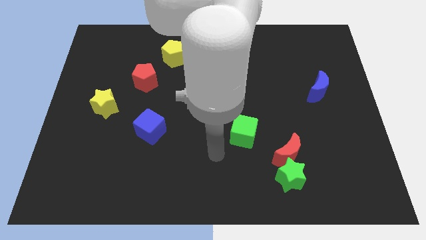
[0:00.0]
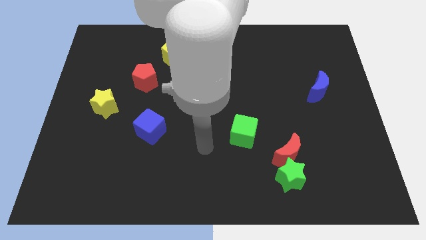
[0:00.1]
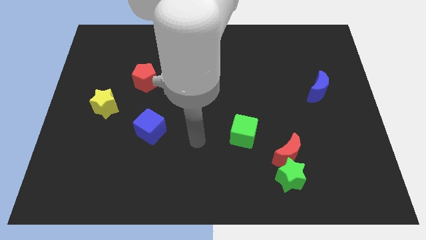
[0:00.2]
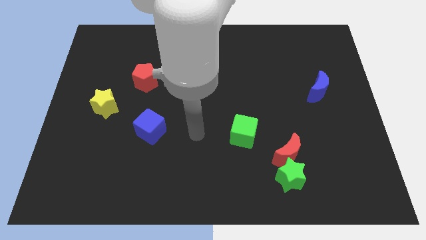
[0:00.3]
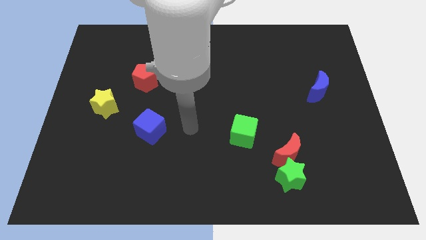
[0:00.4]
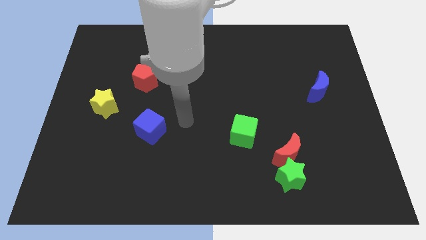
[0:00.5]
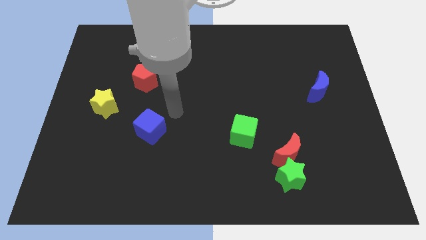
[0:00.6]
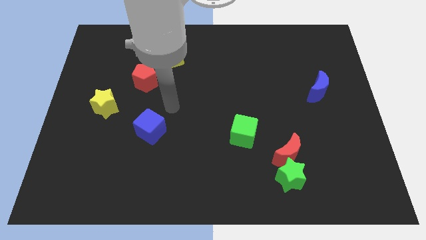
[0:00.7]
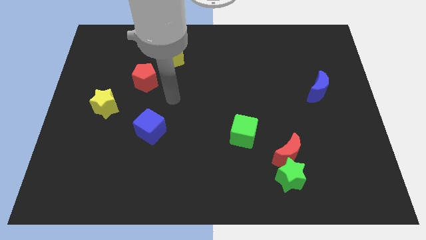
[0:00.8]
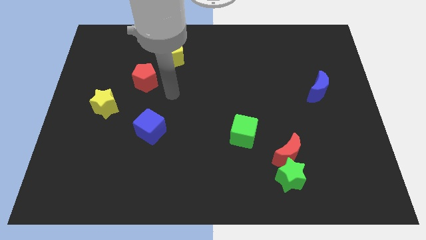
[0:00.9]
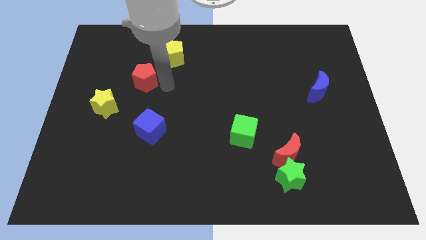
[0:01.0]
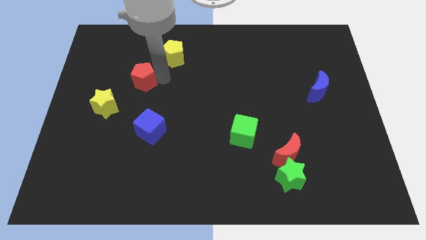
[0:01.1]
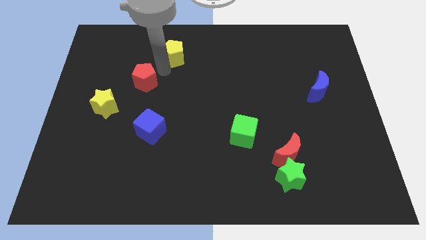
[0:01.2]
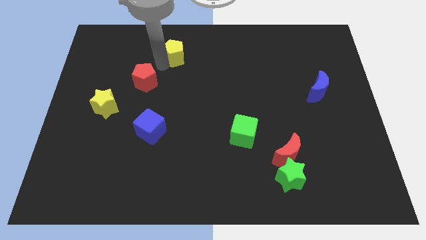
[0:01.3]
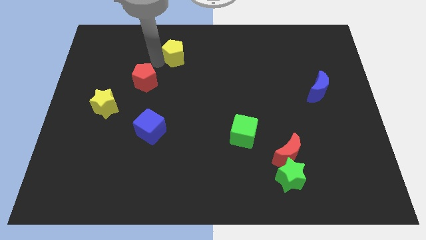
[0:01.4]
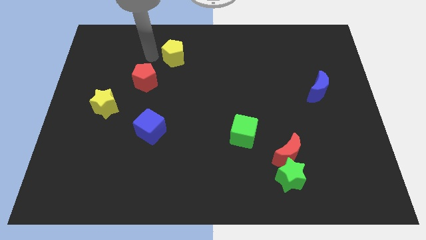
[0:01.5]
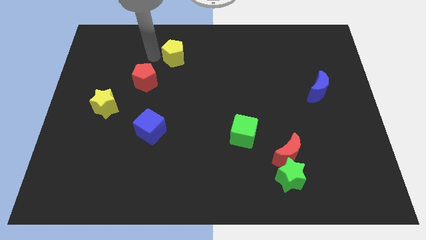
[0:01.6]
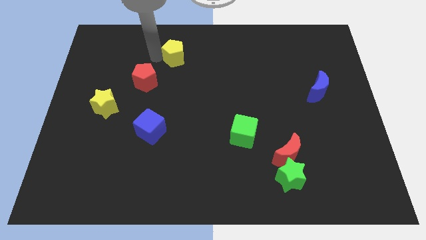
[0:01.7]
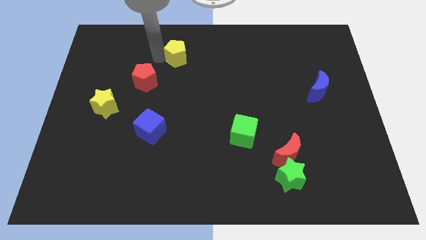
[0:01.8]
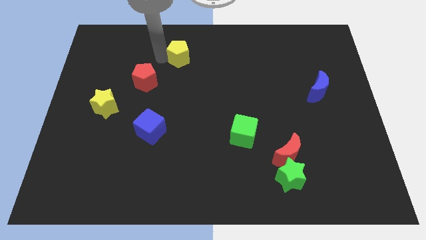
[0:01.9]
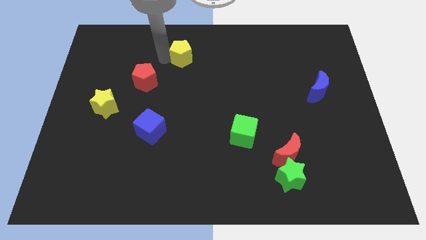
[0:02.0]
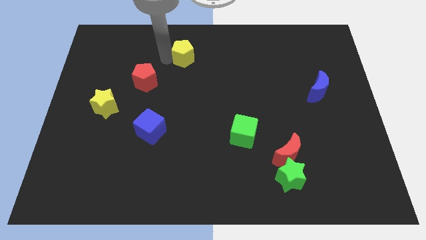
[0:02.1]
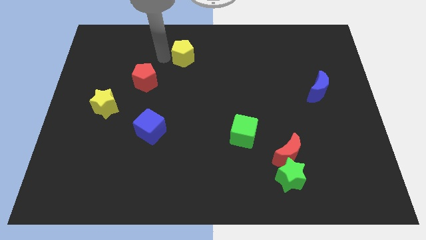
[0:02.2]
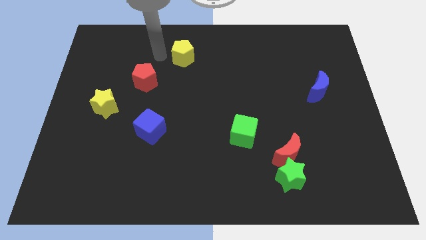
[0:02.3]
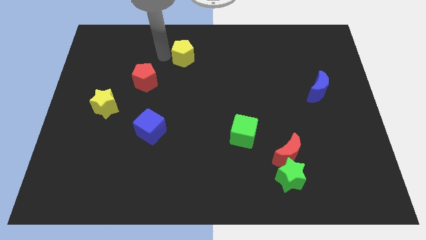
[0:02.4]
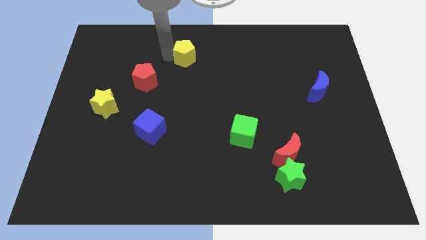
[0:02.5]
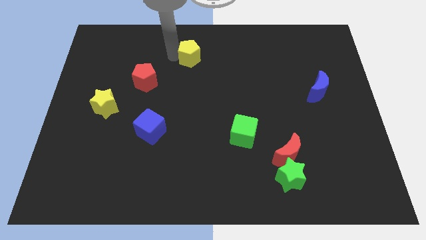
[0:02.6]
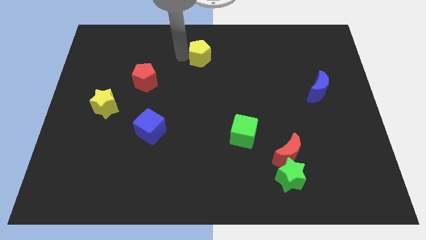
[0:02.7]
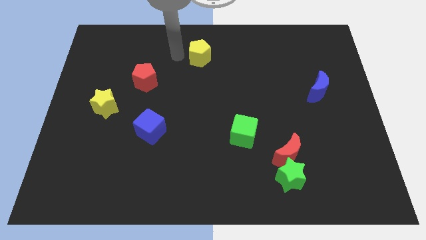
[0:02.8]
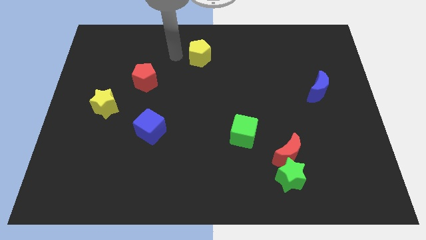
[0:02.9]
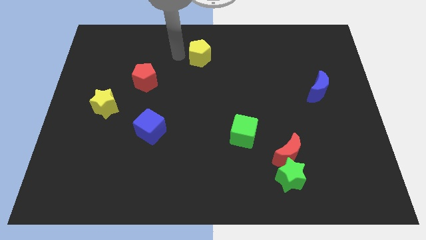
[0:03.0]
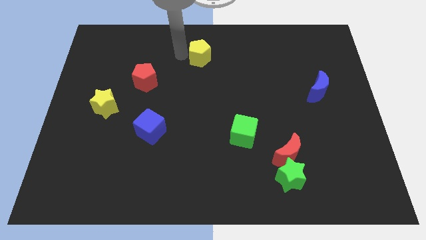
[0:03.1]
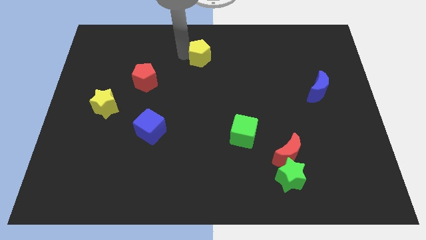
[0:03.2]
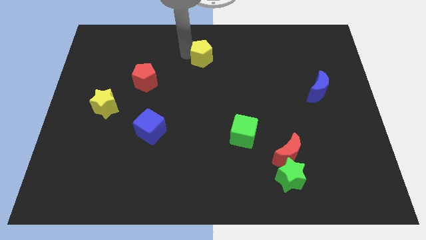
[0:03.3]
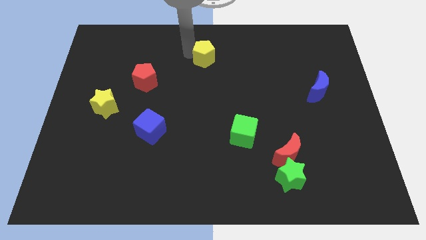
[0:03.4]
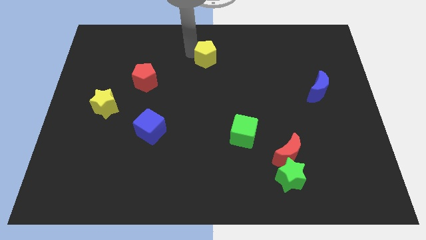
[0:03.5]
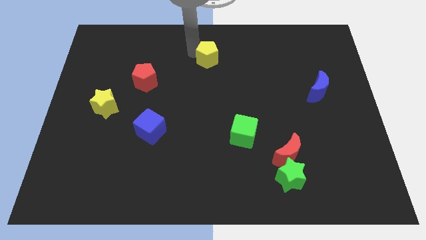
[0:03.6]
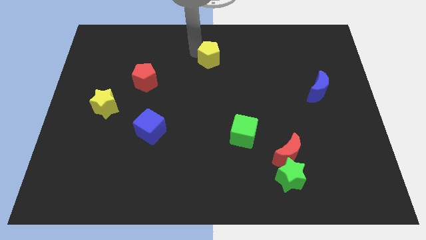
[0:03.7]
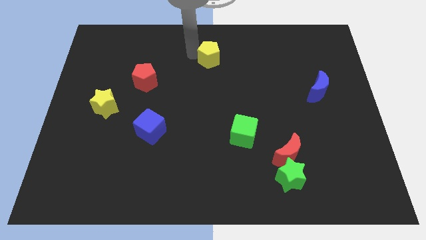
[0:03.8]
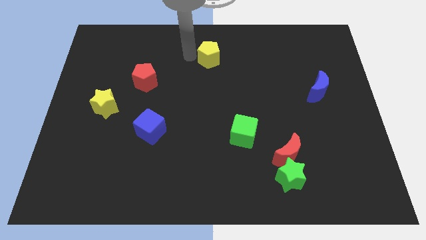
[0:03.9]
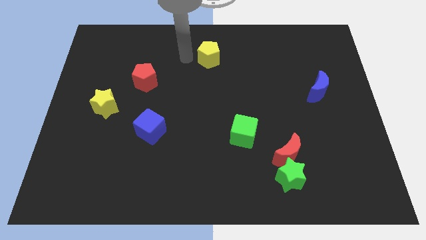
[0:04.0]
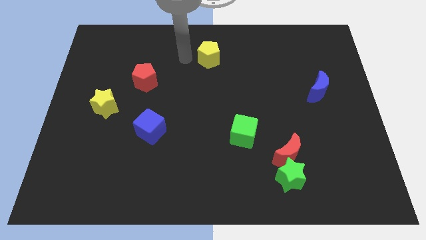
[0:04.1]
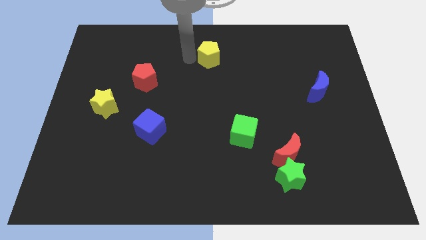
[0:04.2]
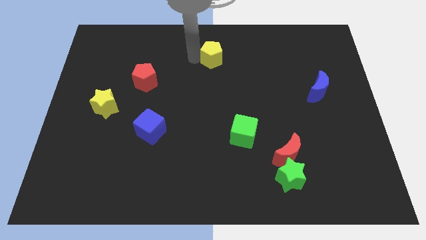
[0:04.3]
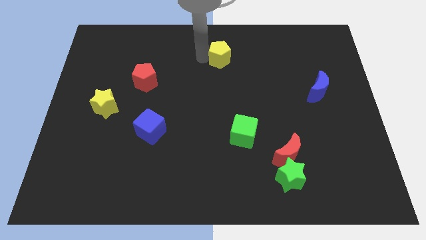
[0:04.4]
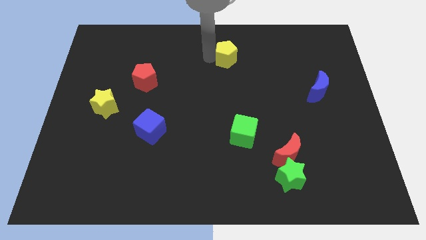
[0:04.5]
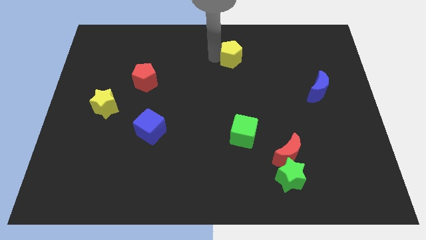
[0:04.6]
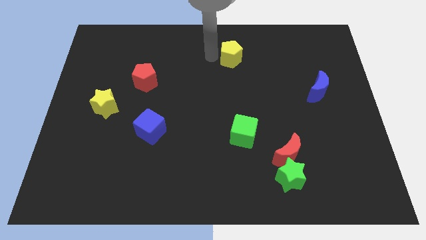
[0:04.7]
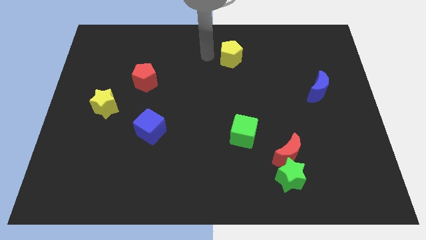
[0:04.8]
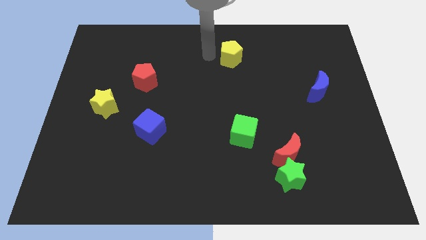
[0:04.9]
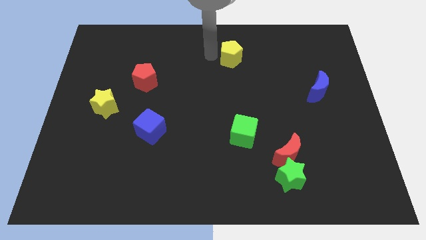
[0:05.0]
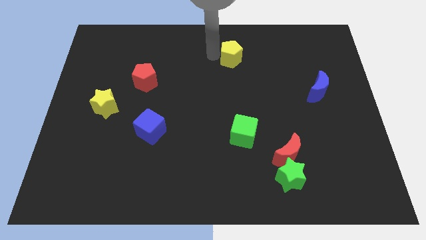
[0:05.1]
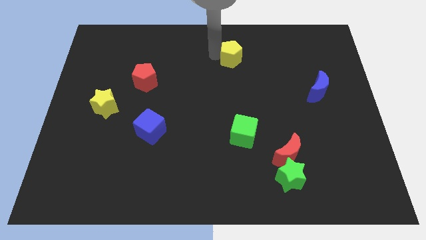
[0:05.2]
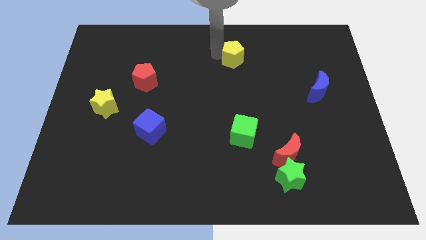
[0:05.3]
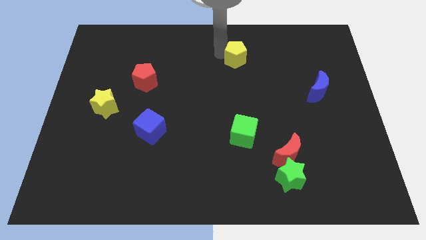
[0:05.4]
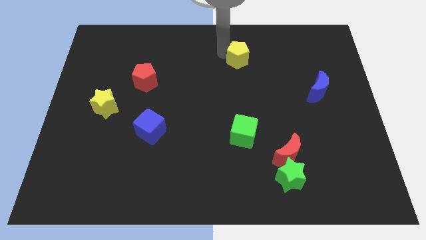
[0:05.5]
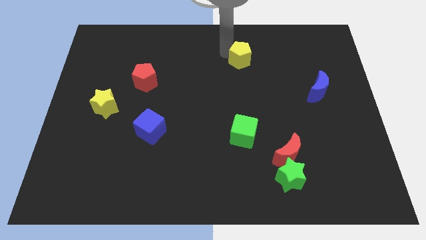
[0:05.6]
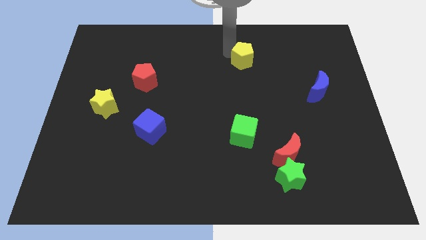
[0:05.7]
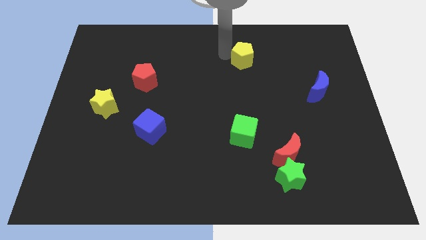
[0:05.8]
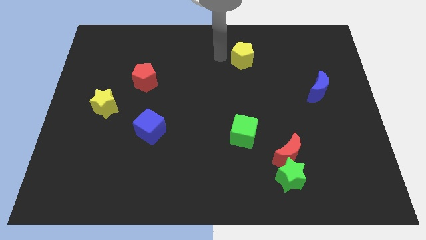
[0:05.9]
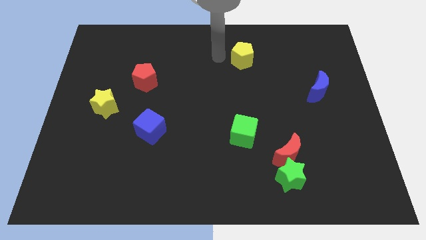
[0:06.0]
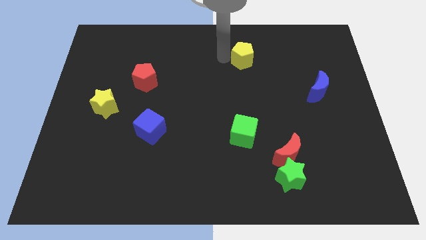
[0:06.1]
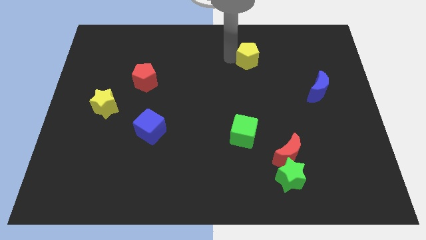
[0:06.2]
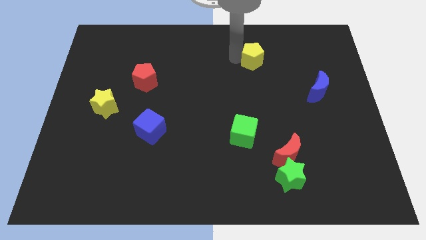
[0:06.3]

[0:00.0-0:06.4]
slide the yellow pentagon right

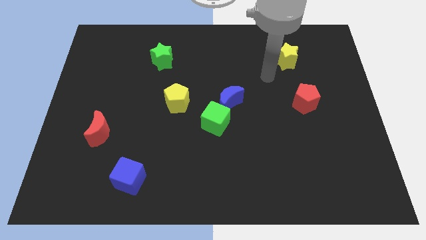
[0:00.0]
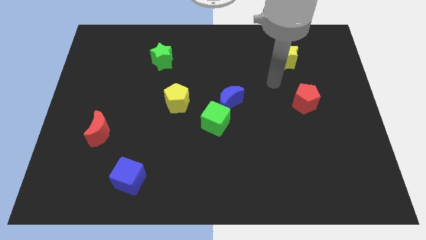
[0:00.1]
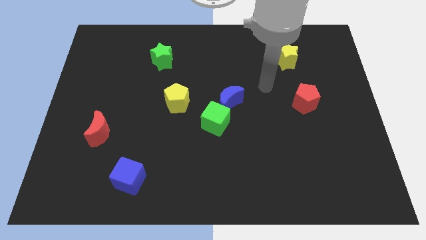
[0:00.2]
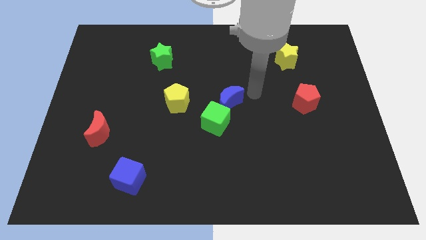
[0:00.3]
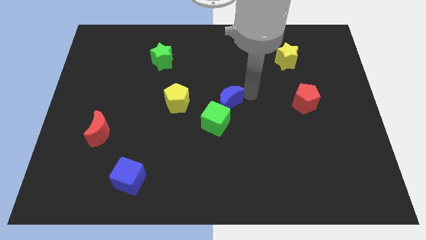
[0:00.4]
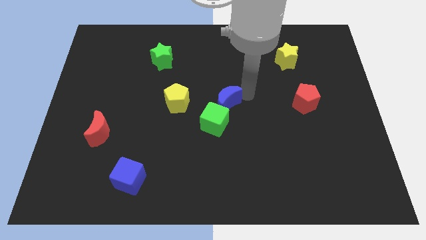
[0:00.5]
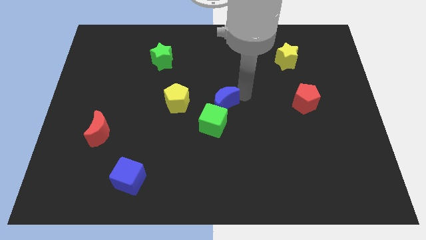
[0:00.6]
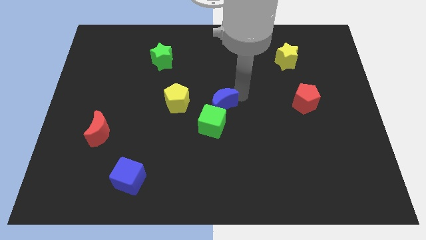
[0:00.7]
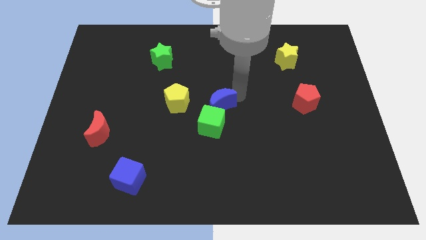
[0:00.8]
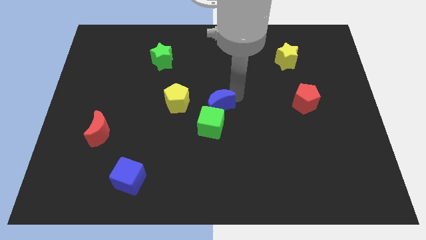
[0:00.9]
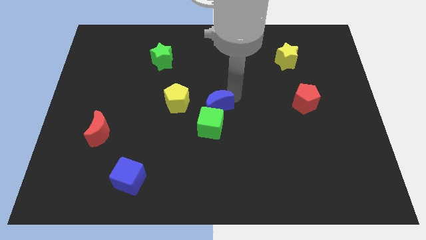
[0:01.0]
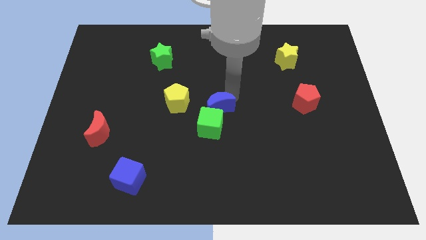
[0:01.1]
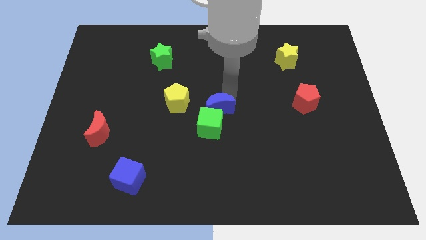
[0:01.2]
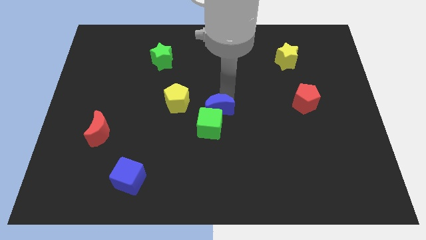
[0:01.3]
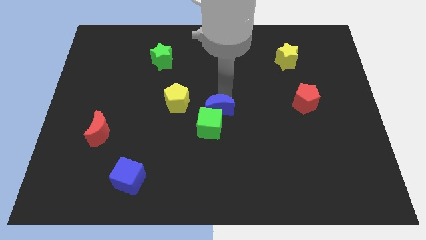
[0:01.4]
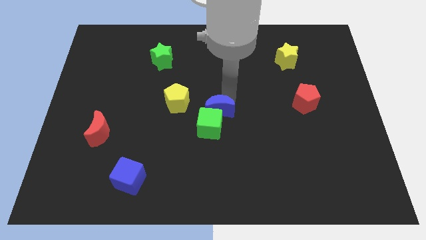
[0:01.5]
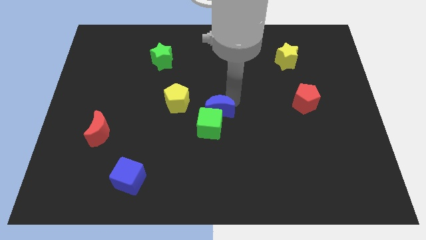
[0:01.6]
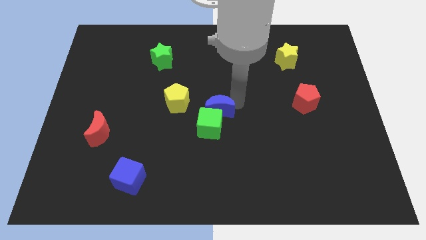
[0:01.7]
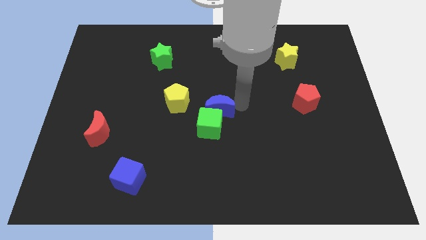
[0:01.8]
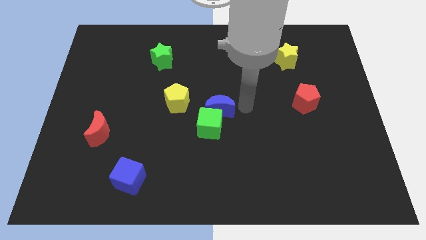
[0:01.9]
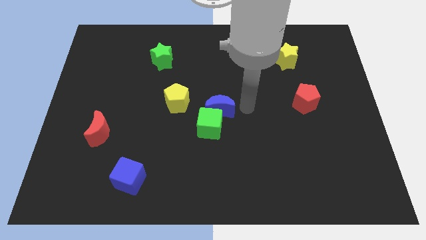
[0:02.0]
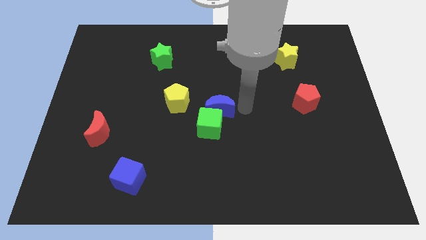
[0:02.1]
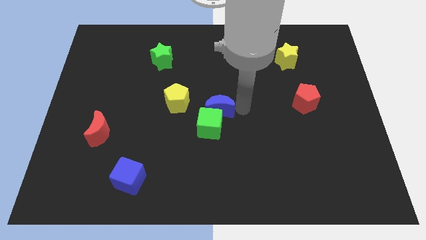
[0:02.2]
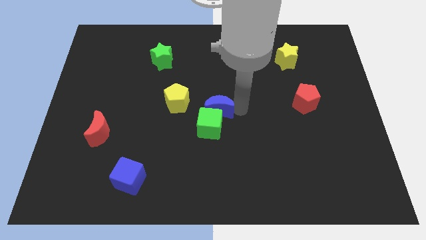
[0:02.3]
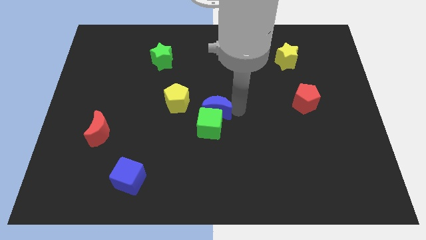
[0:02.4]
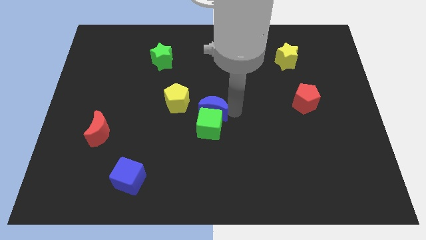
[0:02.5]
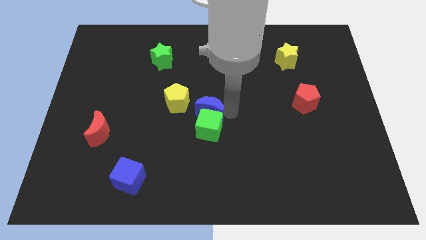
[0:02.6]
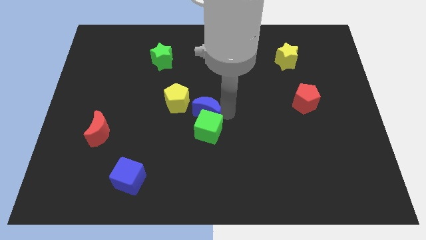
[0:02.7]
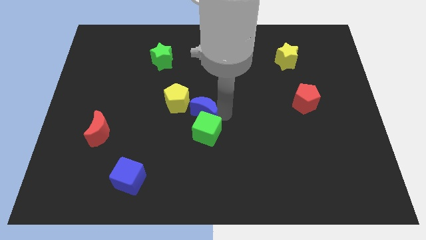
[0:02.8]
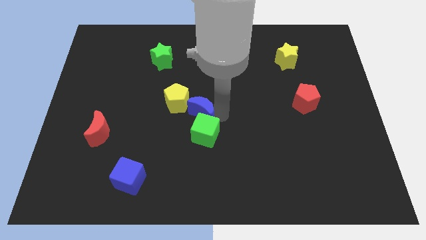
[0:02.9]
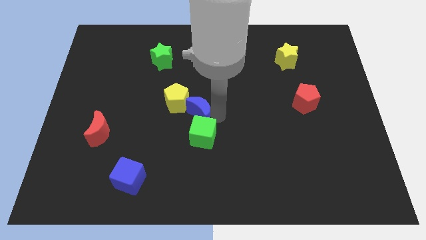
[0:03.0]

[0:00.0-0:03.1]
slide the blue moon diagonally down and to the left a little
